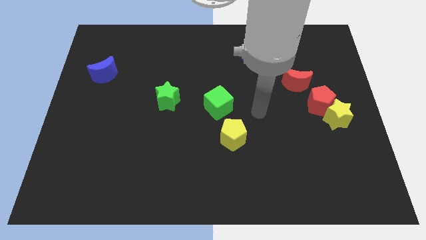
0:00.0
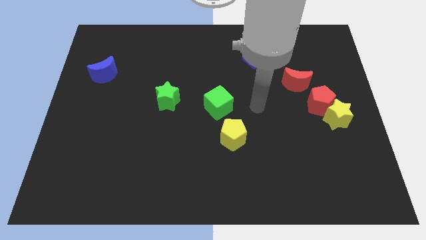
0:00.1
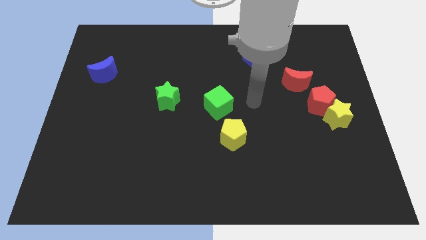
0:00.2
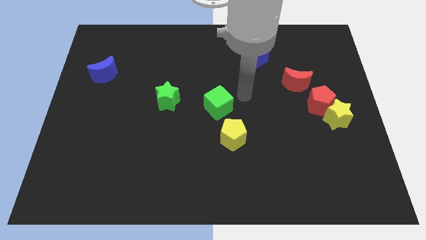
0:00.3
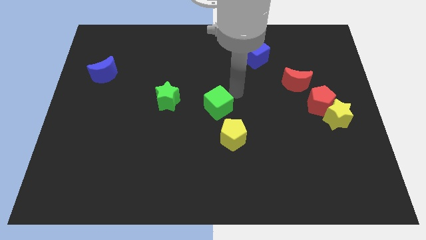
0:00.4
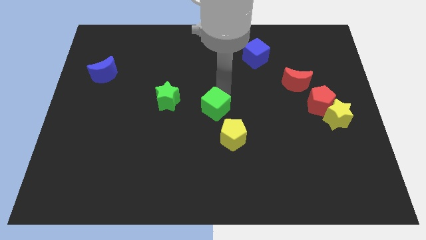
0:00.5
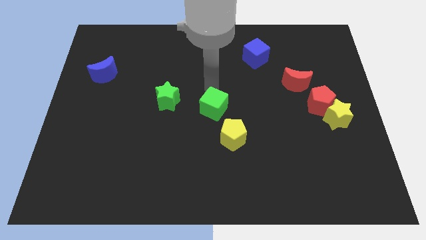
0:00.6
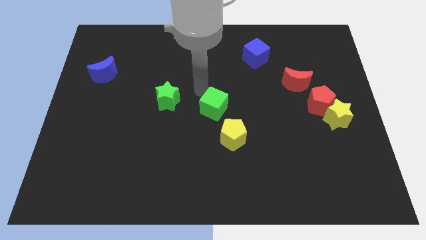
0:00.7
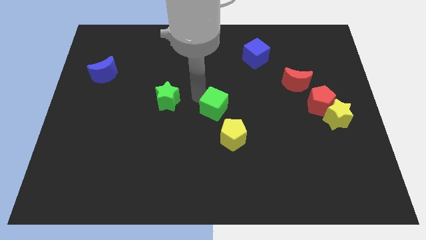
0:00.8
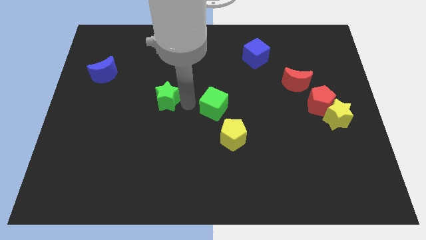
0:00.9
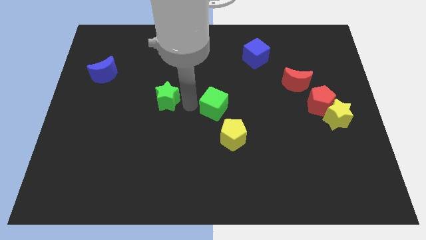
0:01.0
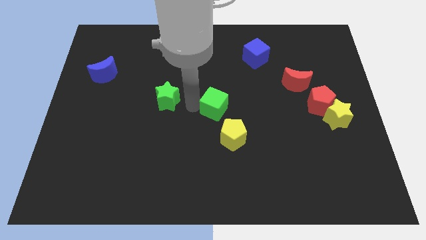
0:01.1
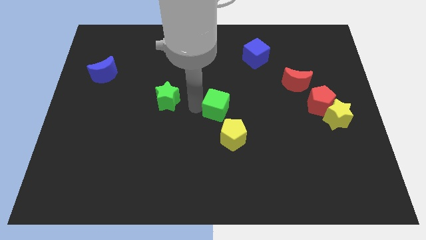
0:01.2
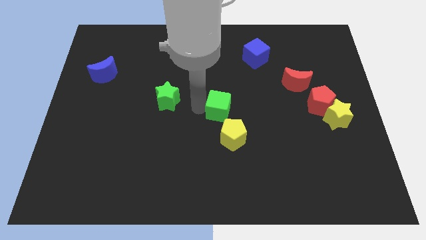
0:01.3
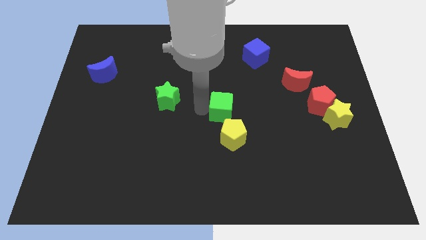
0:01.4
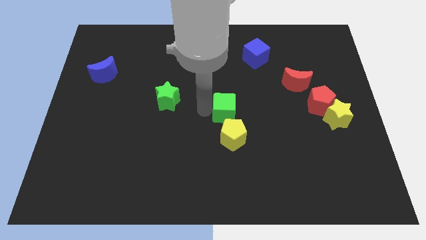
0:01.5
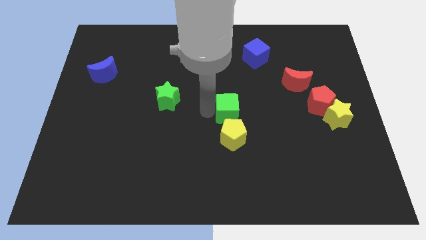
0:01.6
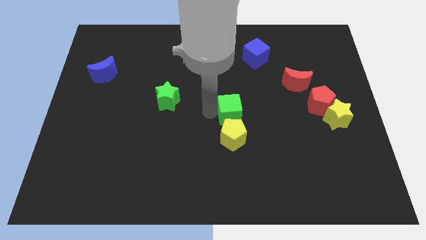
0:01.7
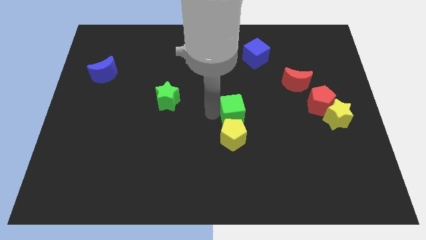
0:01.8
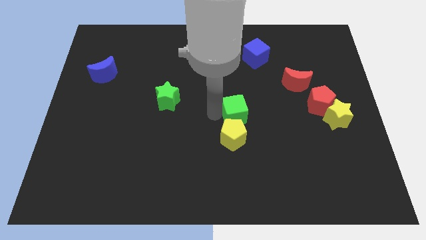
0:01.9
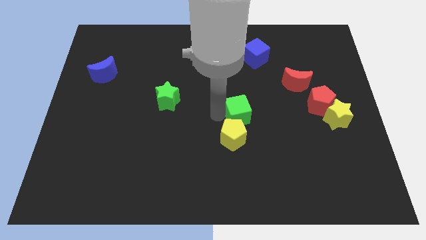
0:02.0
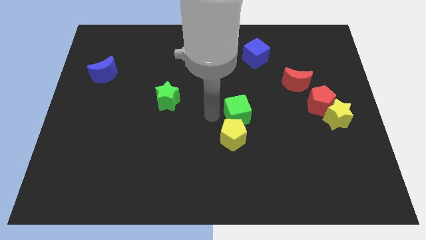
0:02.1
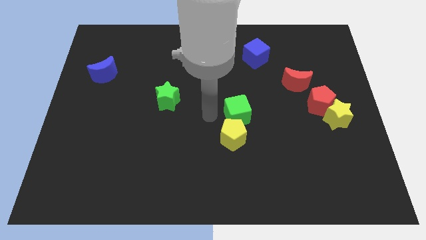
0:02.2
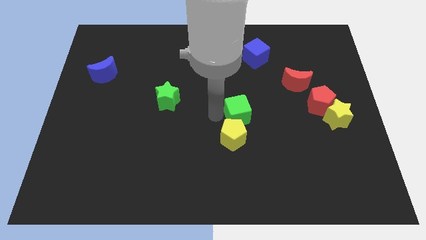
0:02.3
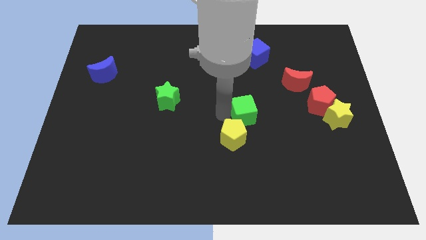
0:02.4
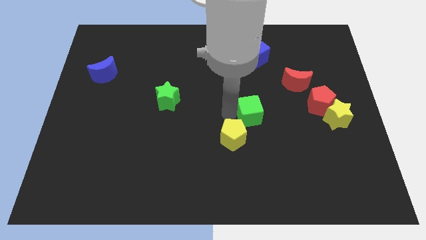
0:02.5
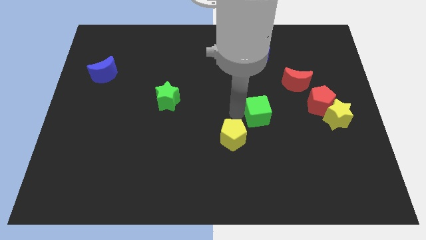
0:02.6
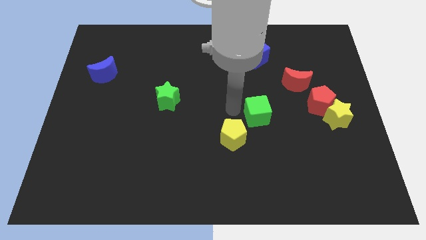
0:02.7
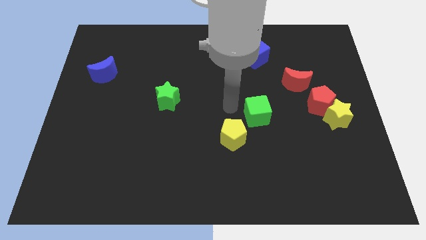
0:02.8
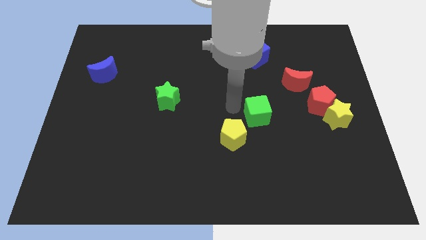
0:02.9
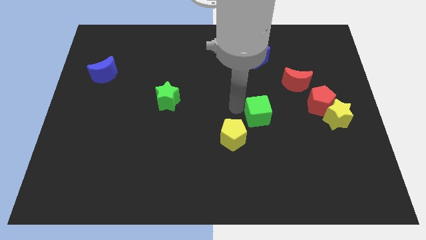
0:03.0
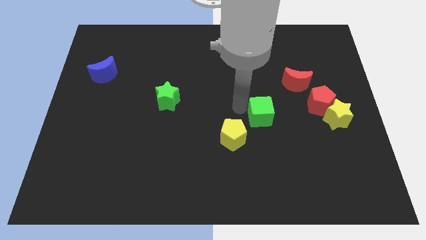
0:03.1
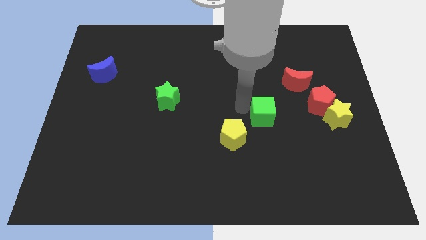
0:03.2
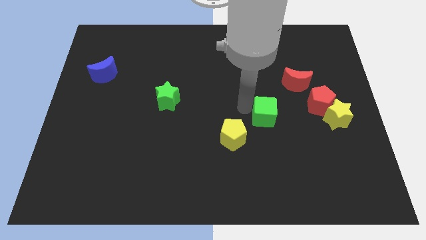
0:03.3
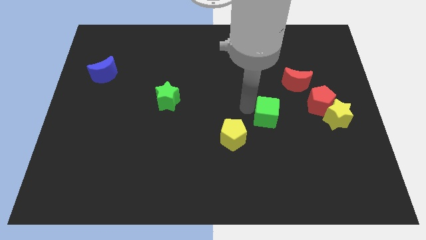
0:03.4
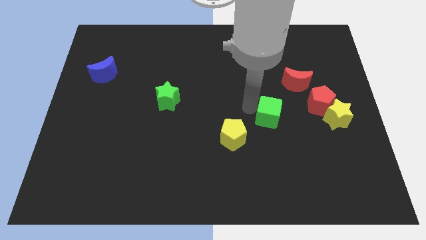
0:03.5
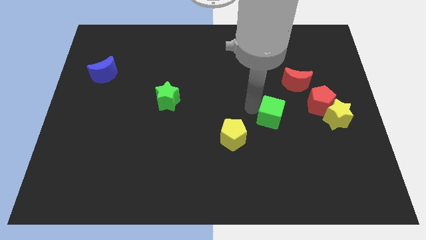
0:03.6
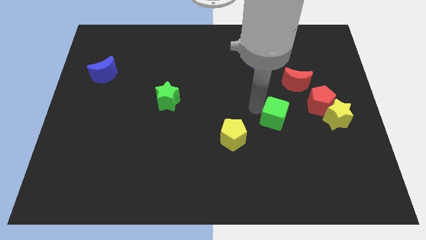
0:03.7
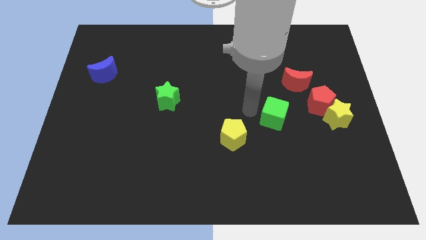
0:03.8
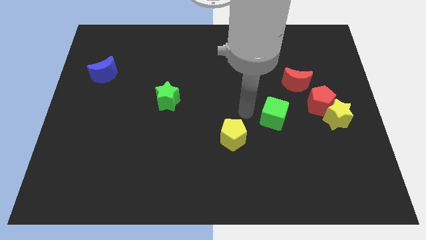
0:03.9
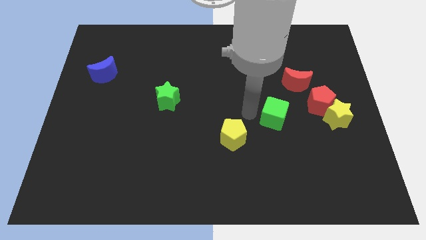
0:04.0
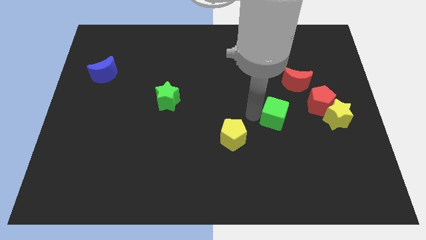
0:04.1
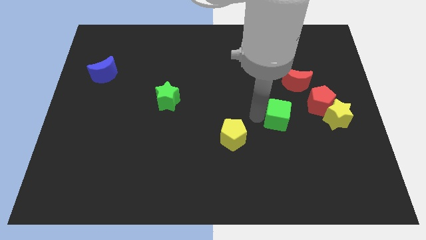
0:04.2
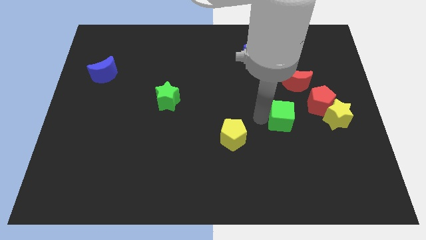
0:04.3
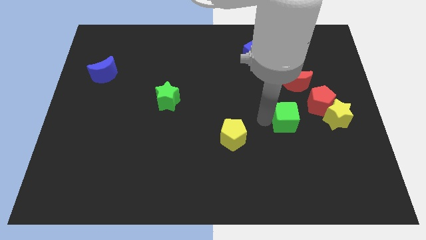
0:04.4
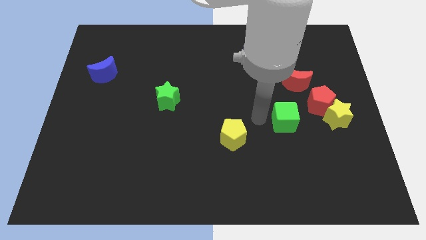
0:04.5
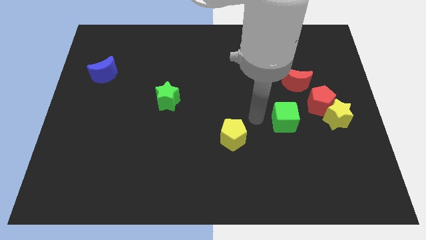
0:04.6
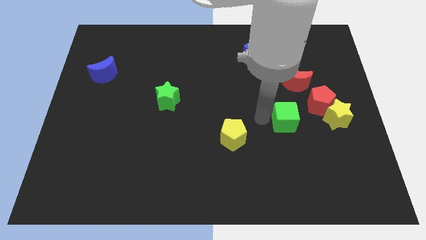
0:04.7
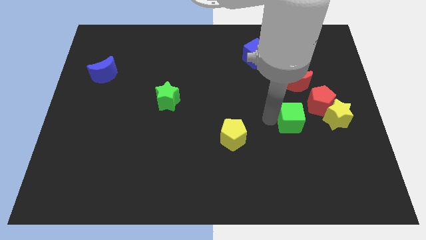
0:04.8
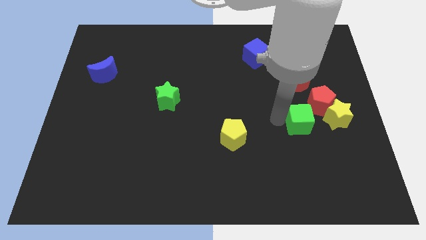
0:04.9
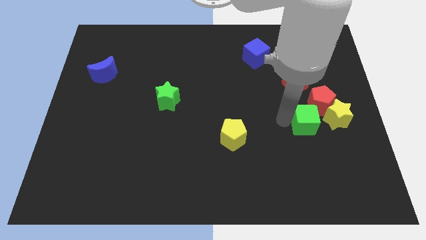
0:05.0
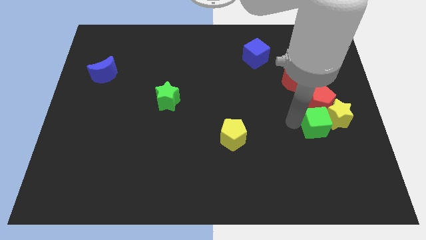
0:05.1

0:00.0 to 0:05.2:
put the green cube to the yellow star

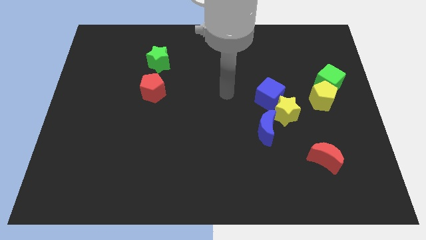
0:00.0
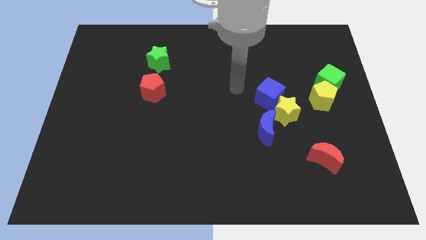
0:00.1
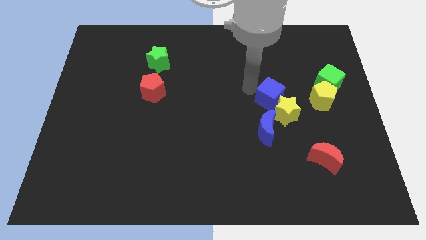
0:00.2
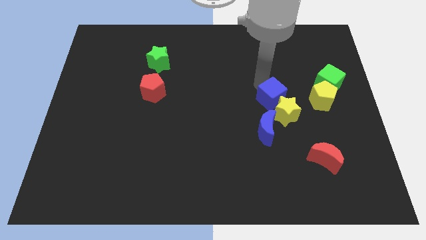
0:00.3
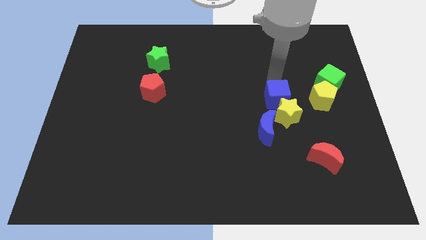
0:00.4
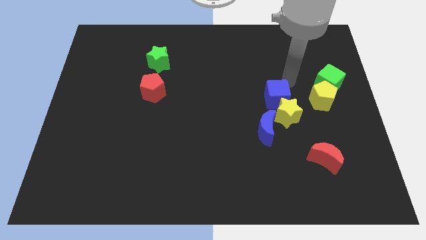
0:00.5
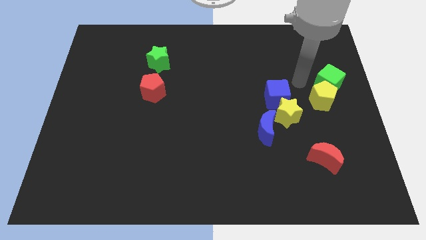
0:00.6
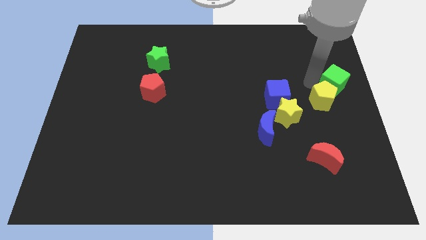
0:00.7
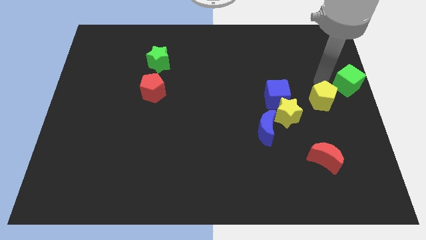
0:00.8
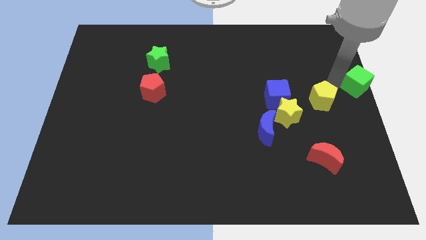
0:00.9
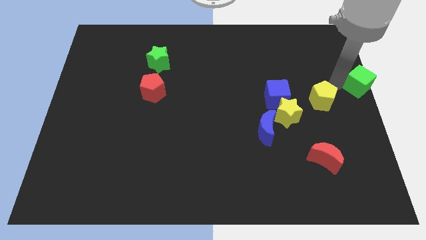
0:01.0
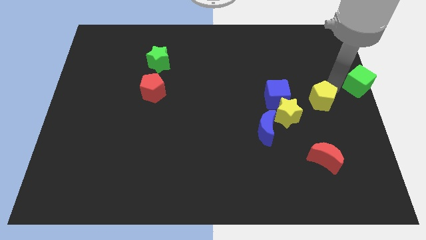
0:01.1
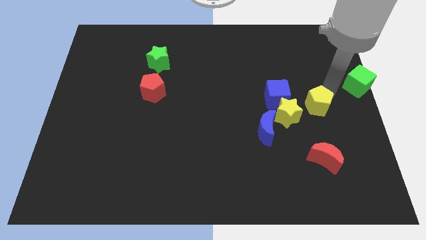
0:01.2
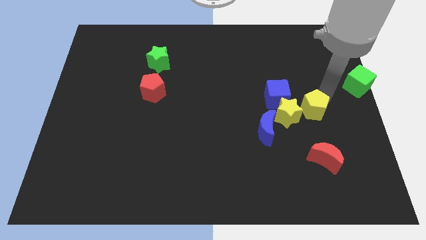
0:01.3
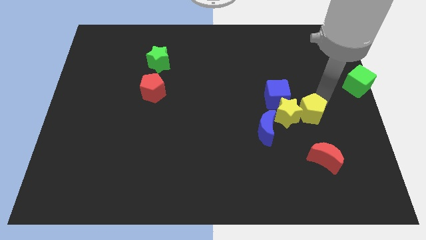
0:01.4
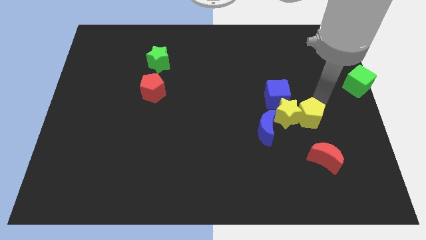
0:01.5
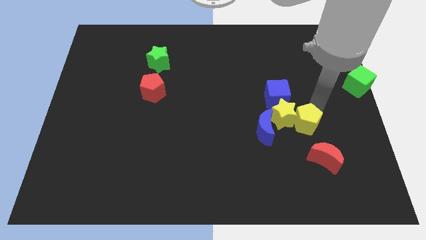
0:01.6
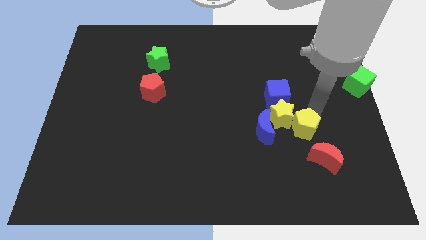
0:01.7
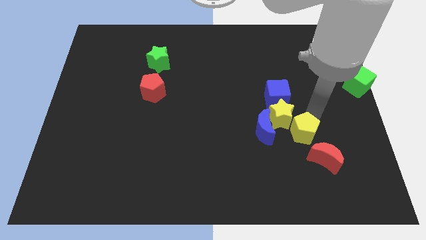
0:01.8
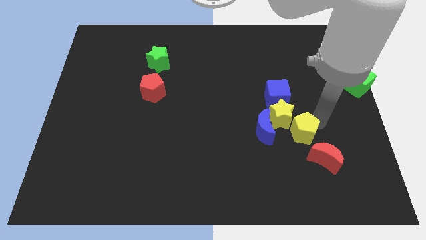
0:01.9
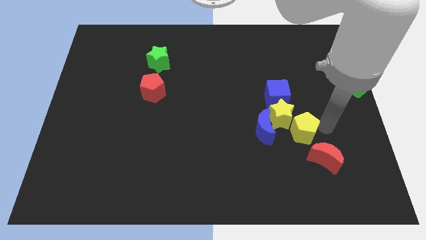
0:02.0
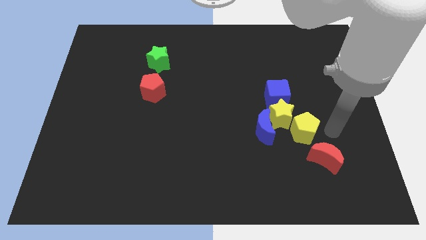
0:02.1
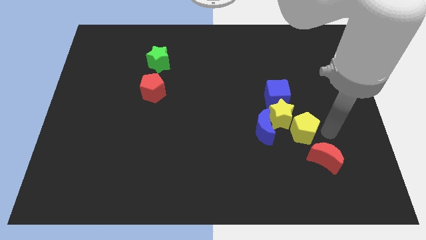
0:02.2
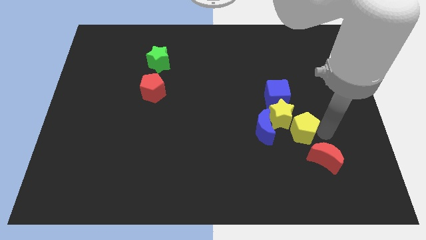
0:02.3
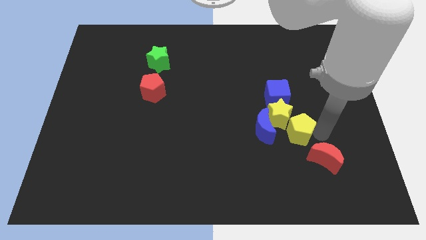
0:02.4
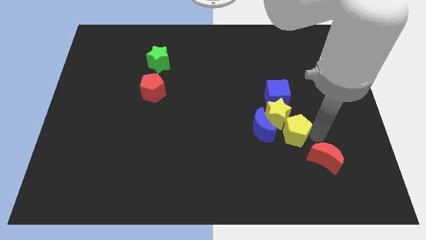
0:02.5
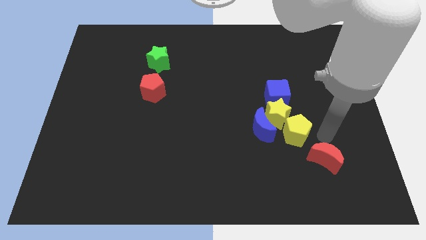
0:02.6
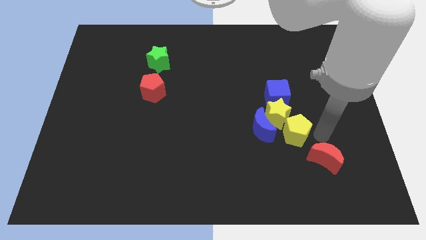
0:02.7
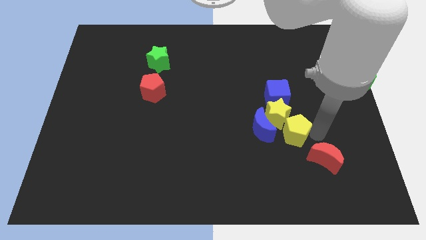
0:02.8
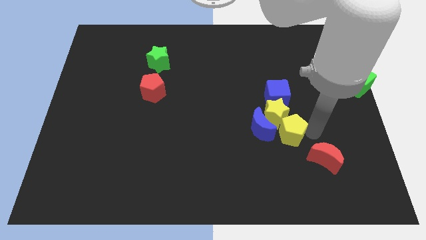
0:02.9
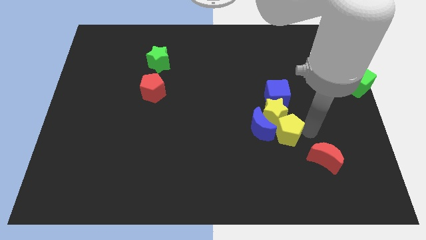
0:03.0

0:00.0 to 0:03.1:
push the yellow pentagon to the blue moon
